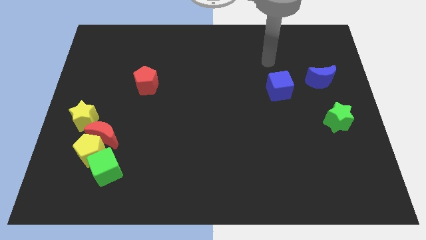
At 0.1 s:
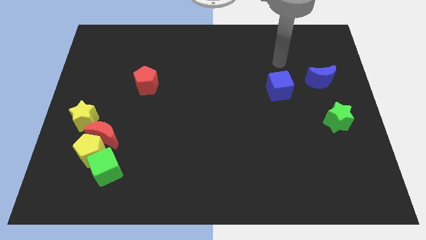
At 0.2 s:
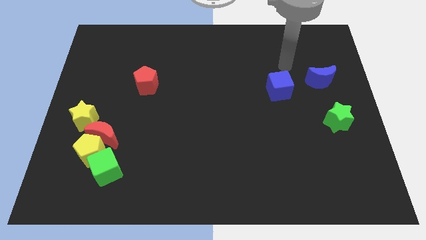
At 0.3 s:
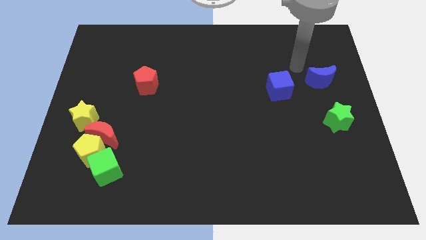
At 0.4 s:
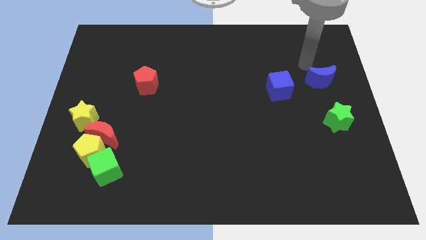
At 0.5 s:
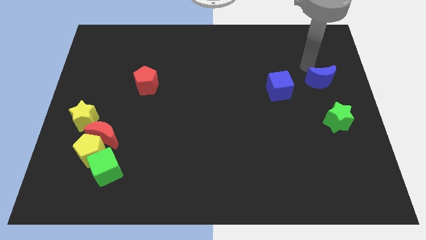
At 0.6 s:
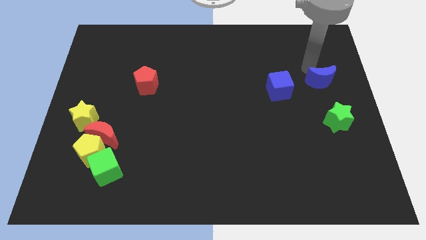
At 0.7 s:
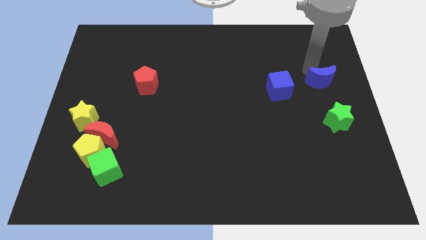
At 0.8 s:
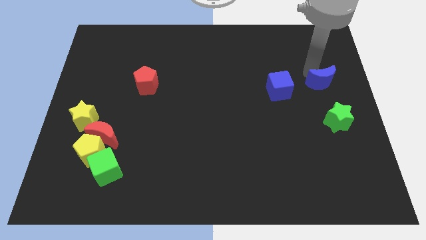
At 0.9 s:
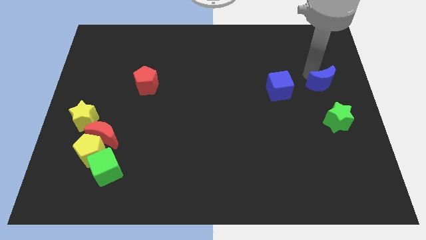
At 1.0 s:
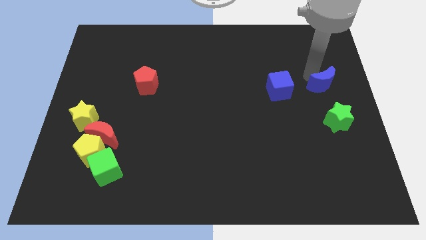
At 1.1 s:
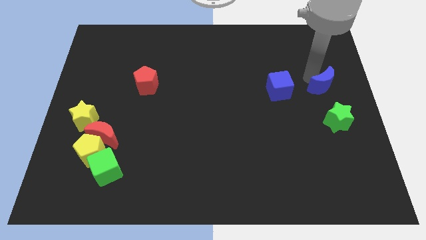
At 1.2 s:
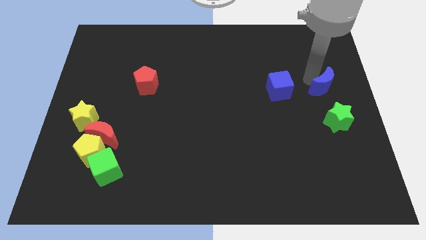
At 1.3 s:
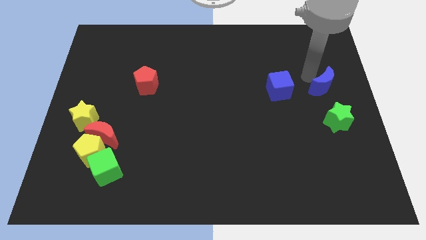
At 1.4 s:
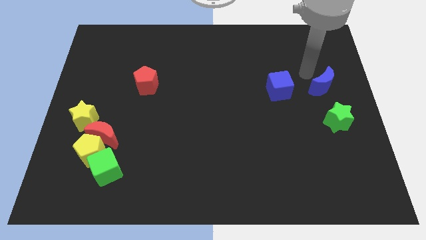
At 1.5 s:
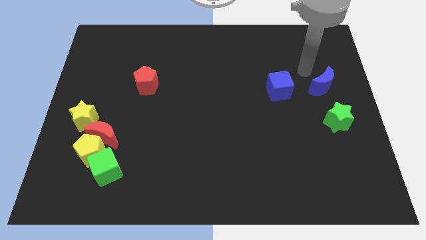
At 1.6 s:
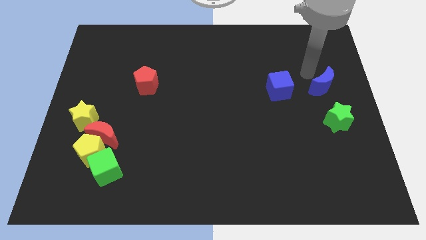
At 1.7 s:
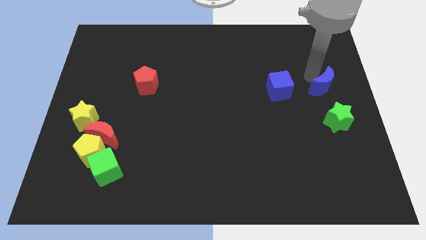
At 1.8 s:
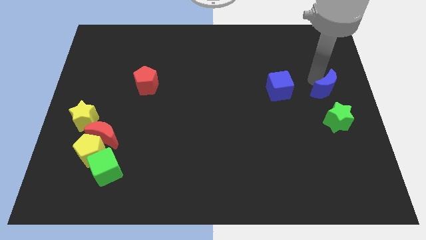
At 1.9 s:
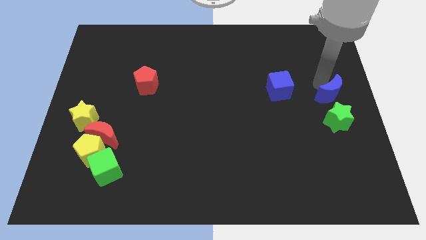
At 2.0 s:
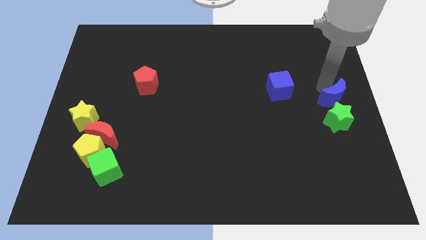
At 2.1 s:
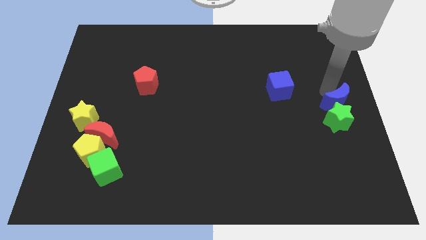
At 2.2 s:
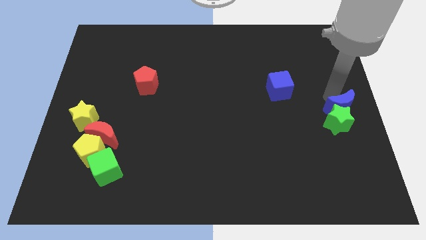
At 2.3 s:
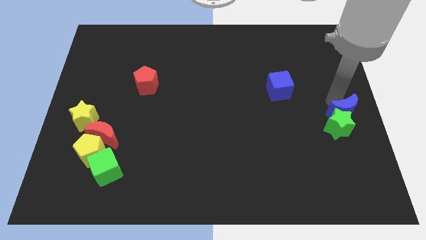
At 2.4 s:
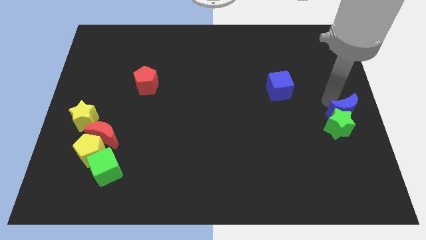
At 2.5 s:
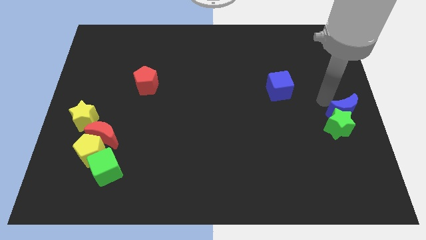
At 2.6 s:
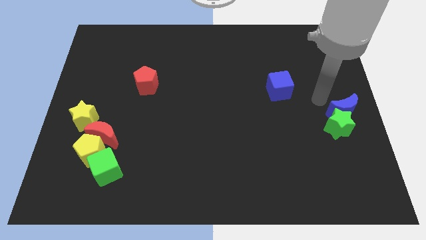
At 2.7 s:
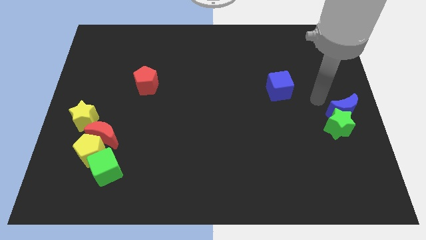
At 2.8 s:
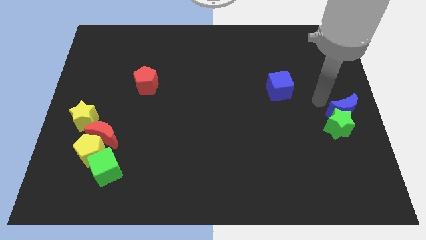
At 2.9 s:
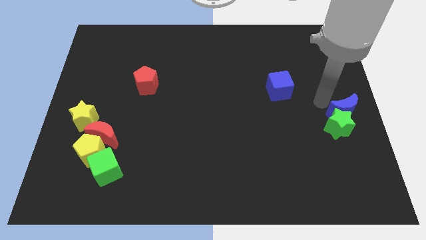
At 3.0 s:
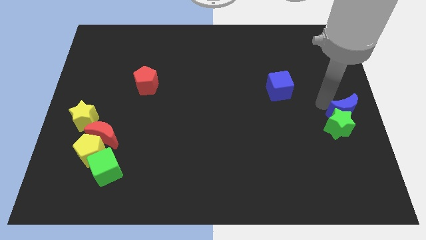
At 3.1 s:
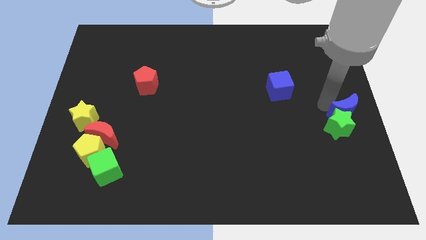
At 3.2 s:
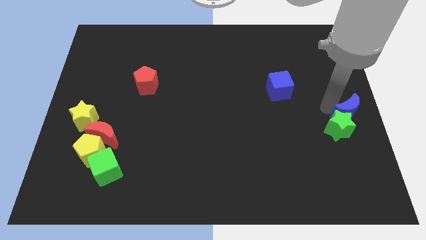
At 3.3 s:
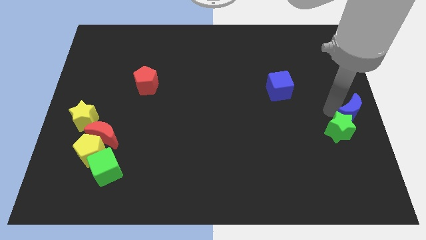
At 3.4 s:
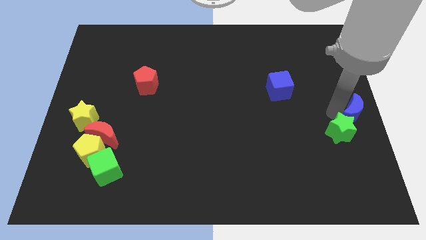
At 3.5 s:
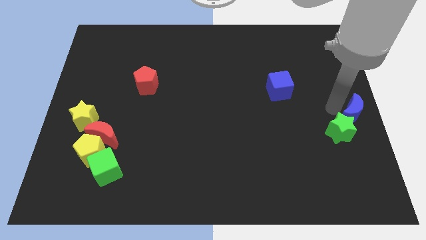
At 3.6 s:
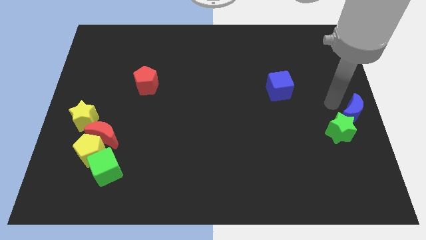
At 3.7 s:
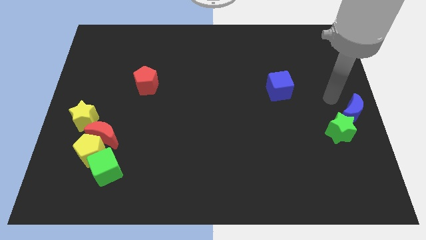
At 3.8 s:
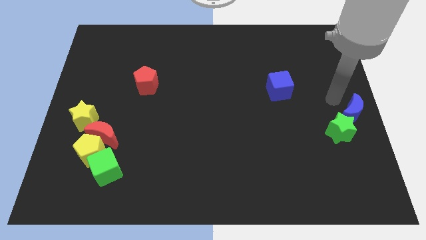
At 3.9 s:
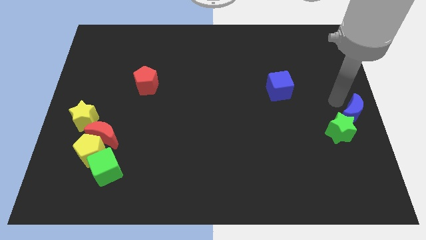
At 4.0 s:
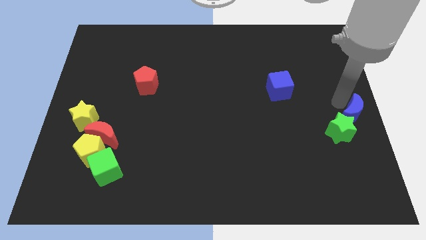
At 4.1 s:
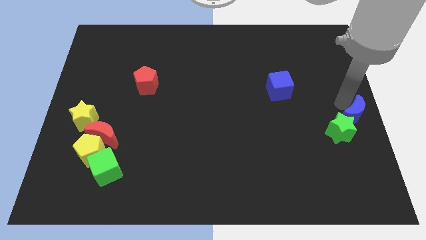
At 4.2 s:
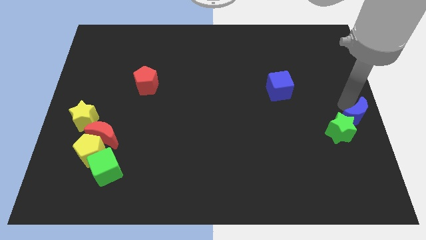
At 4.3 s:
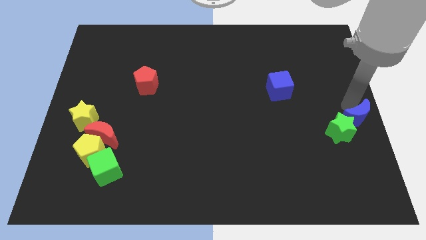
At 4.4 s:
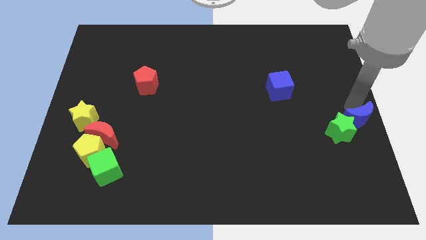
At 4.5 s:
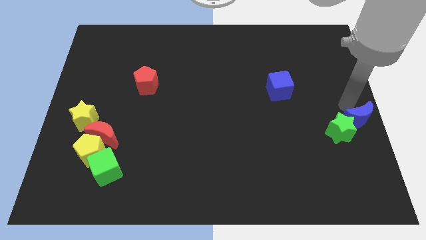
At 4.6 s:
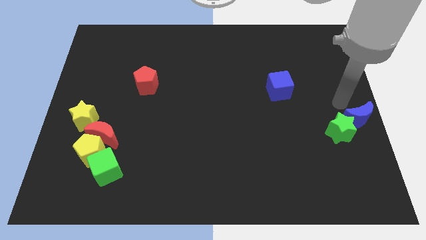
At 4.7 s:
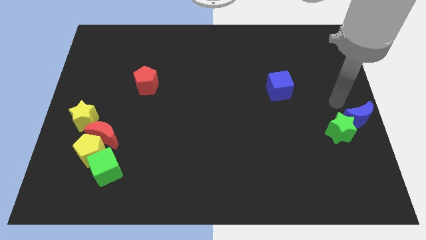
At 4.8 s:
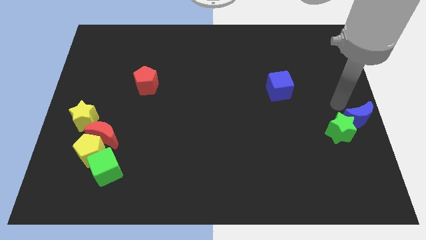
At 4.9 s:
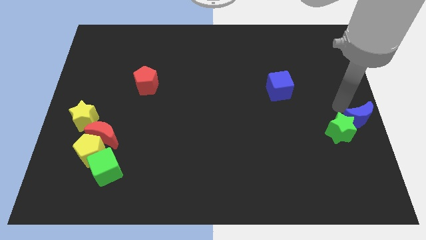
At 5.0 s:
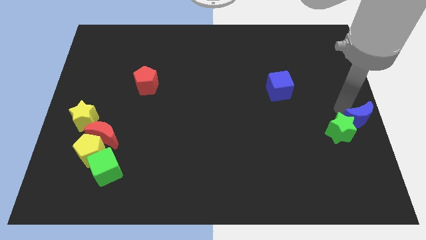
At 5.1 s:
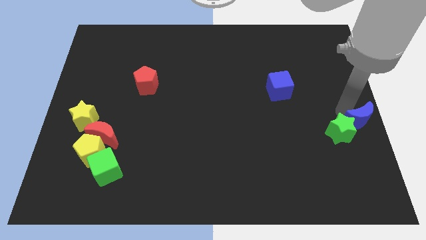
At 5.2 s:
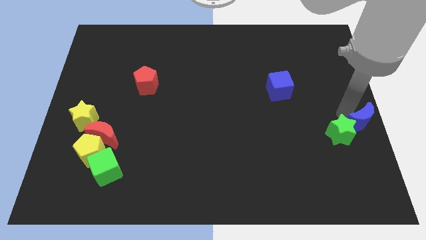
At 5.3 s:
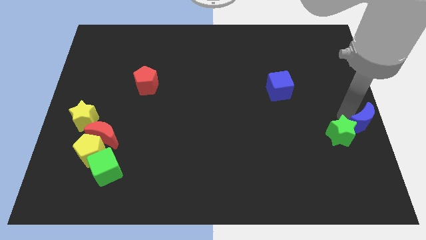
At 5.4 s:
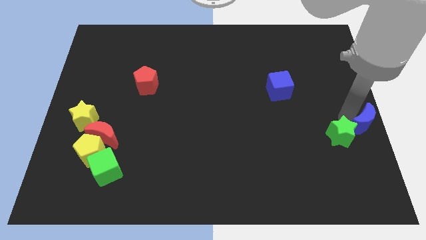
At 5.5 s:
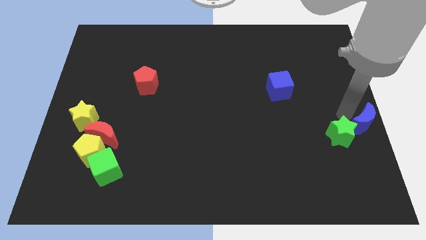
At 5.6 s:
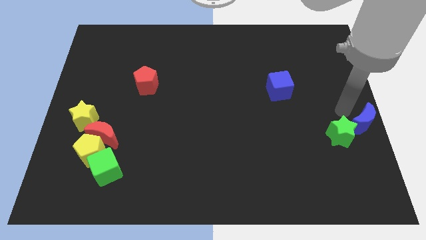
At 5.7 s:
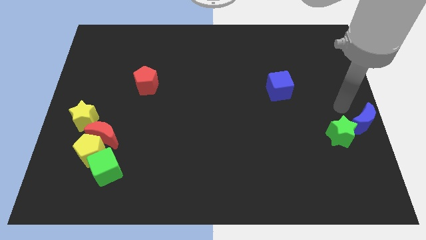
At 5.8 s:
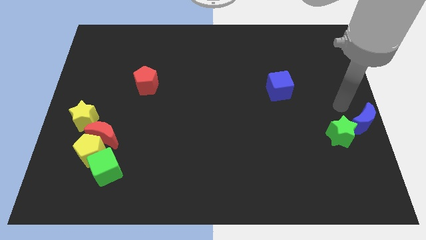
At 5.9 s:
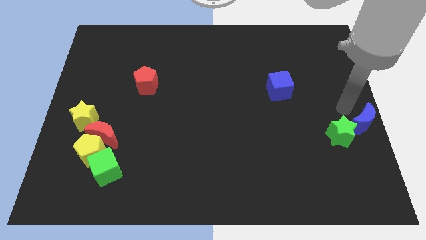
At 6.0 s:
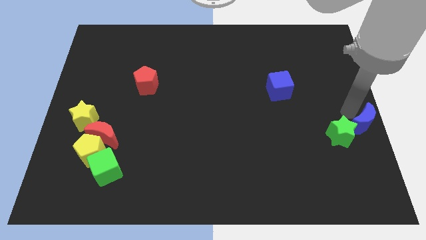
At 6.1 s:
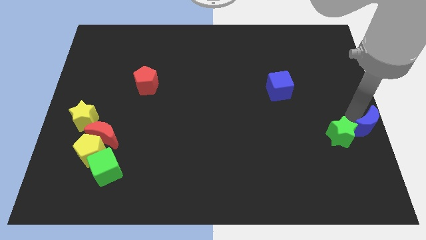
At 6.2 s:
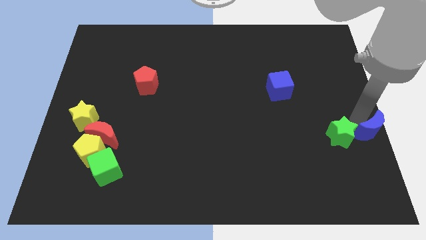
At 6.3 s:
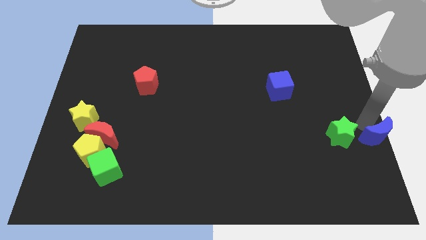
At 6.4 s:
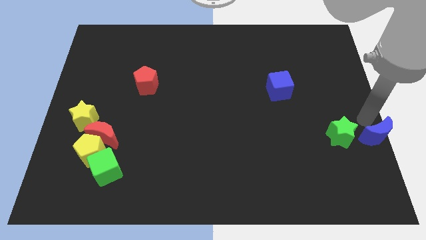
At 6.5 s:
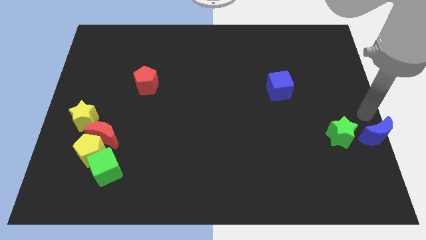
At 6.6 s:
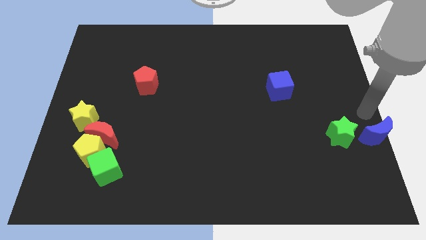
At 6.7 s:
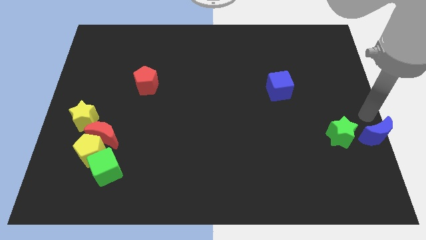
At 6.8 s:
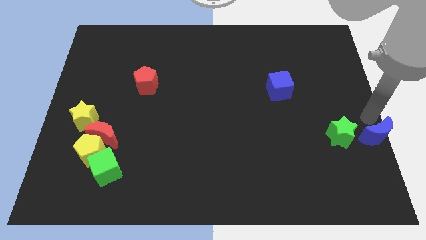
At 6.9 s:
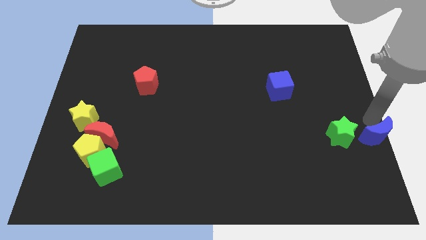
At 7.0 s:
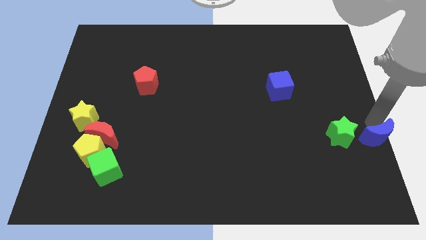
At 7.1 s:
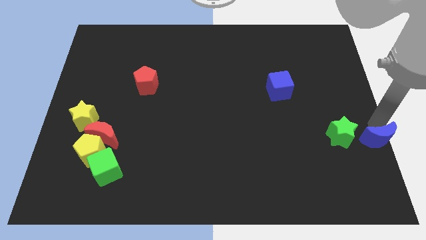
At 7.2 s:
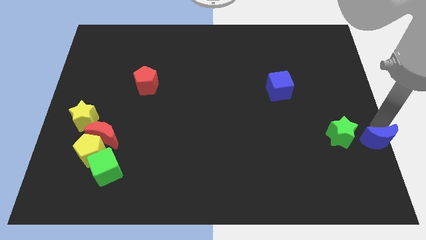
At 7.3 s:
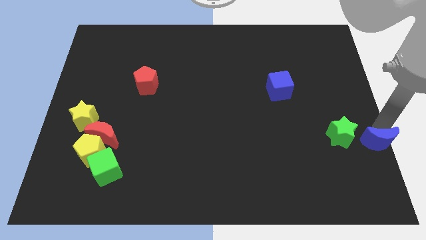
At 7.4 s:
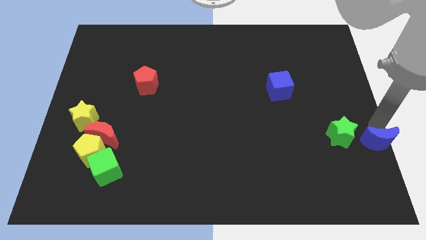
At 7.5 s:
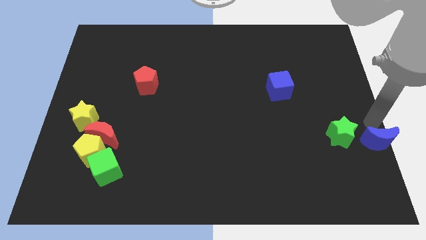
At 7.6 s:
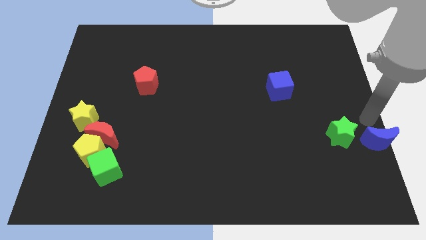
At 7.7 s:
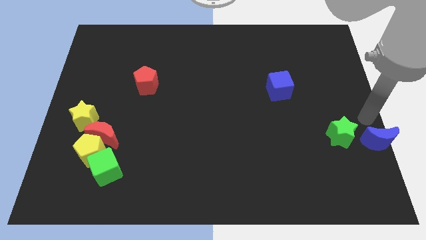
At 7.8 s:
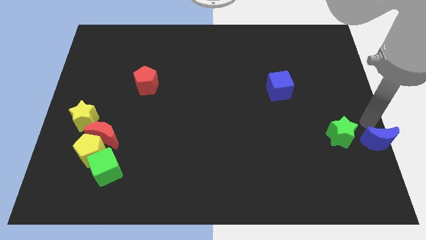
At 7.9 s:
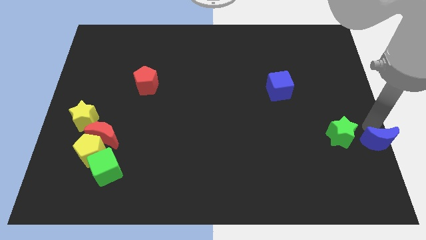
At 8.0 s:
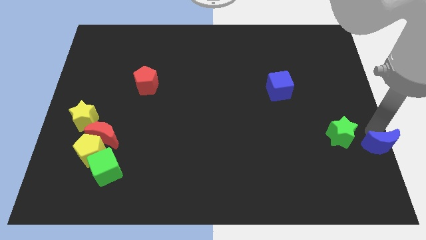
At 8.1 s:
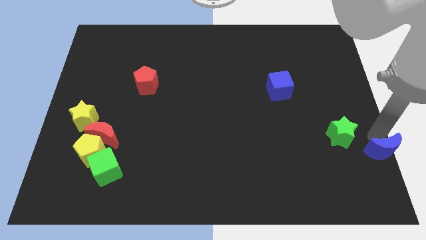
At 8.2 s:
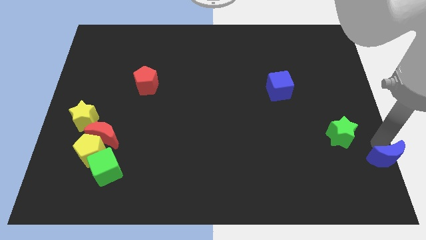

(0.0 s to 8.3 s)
slide the blue moon to the bottom right of the board
